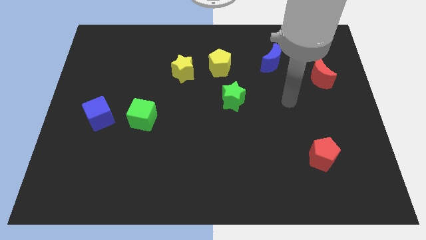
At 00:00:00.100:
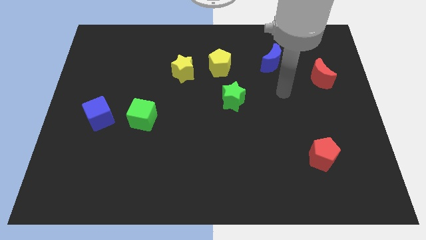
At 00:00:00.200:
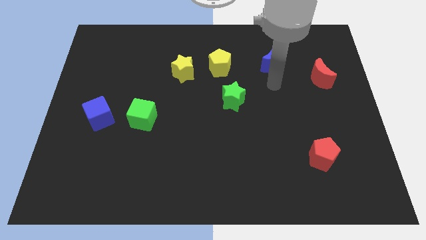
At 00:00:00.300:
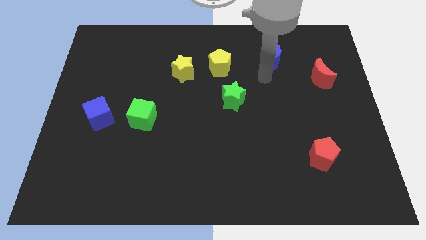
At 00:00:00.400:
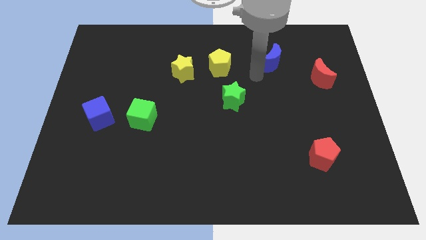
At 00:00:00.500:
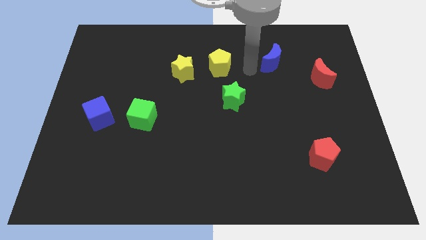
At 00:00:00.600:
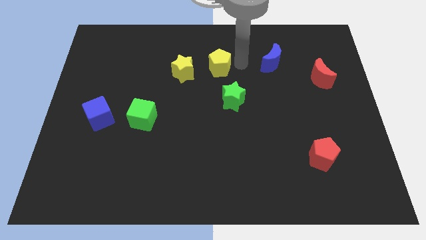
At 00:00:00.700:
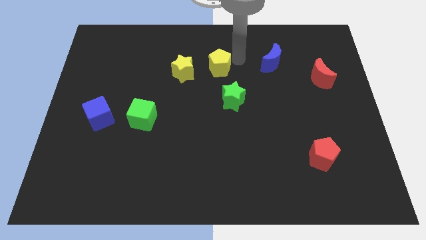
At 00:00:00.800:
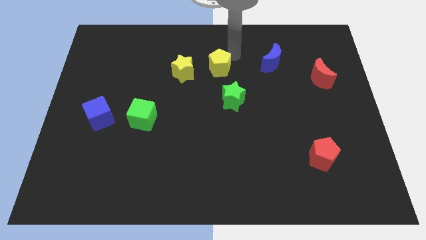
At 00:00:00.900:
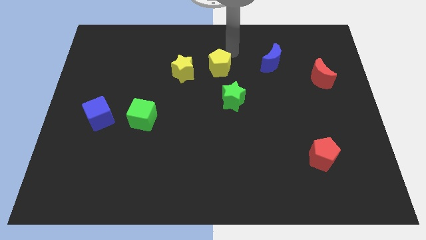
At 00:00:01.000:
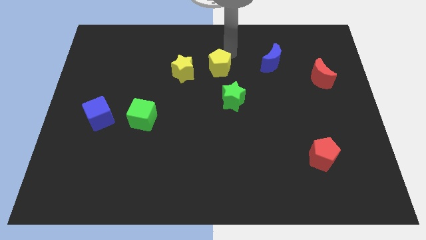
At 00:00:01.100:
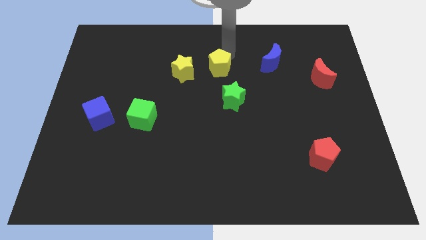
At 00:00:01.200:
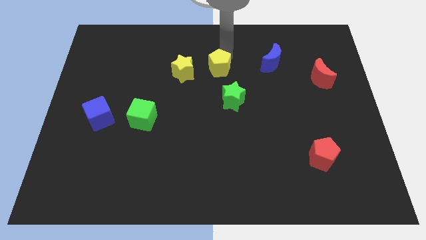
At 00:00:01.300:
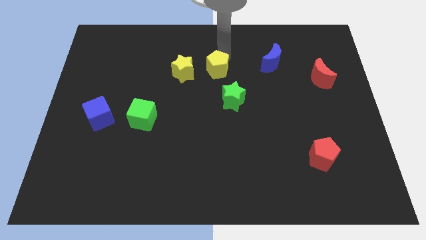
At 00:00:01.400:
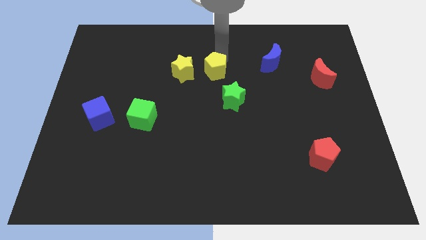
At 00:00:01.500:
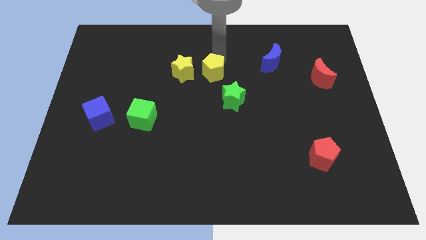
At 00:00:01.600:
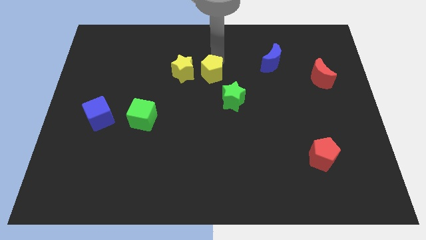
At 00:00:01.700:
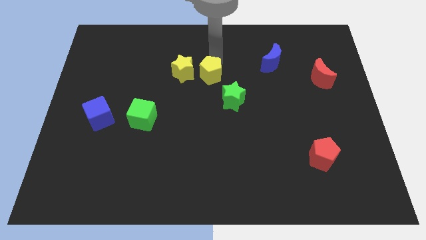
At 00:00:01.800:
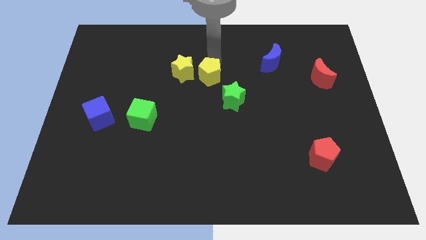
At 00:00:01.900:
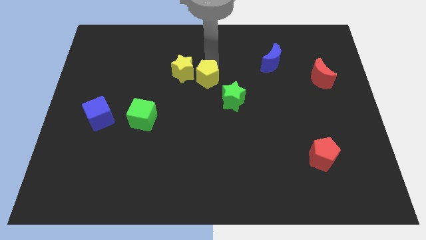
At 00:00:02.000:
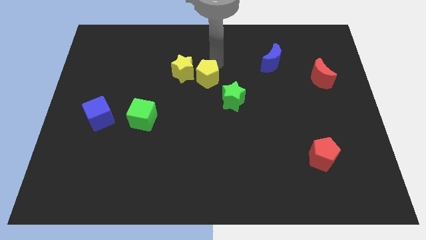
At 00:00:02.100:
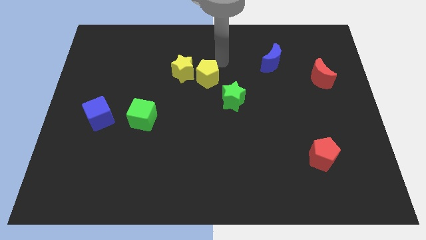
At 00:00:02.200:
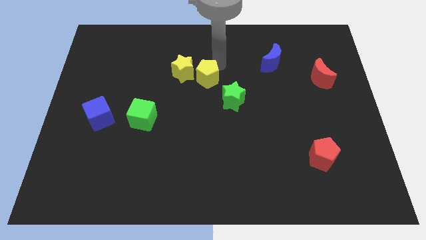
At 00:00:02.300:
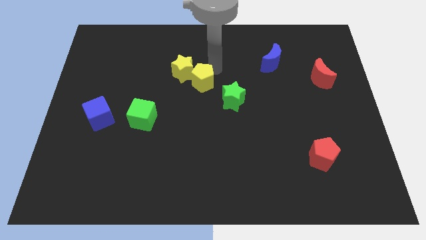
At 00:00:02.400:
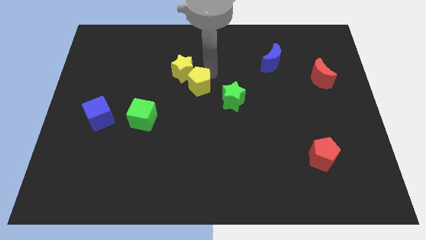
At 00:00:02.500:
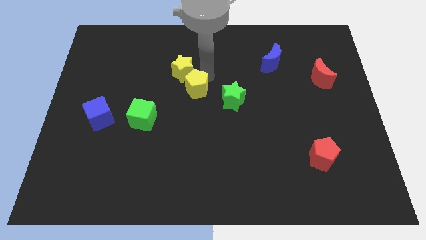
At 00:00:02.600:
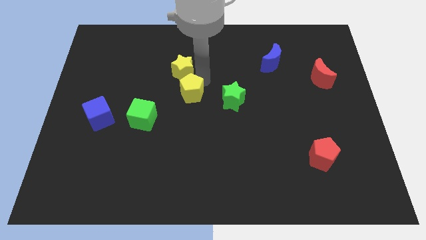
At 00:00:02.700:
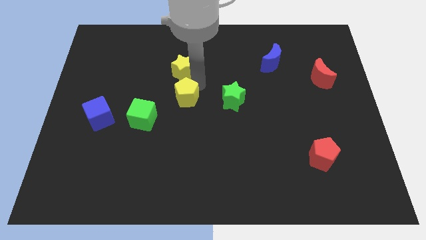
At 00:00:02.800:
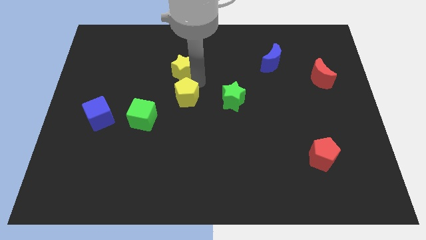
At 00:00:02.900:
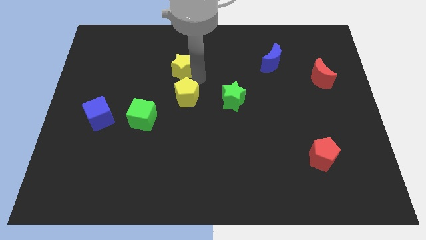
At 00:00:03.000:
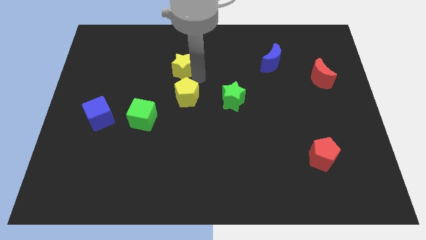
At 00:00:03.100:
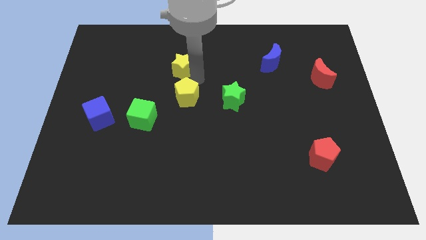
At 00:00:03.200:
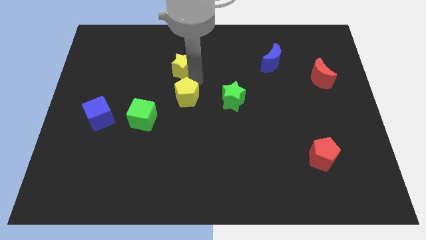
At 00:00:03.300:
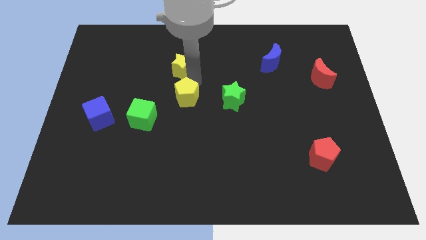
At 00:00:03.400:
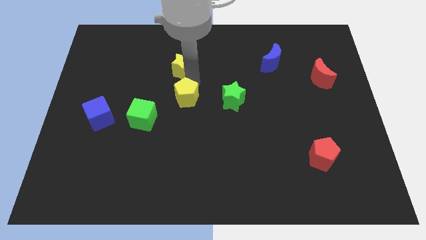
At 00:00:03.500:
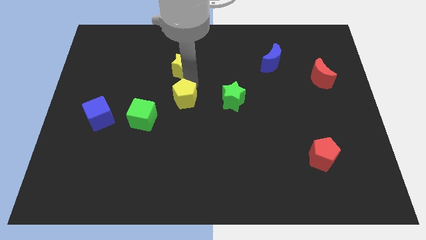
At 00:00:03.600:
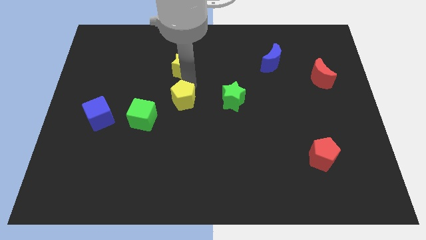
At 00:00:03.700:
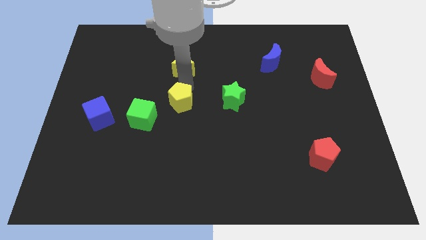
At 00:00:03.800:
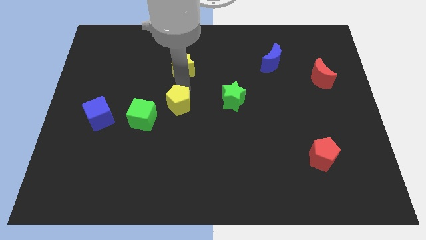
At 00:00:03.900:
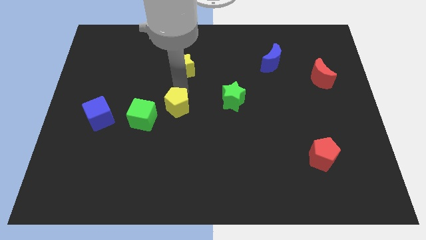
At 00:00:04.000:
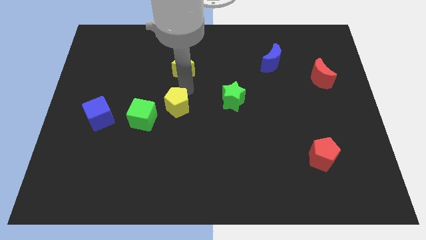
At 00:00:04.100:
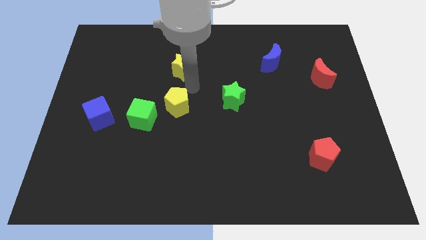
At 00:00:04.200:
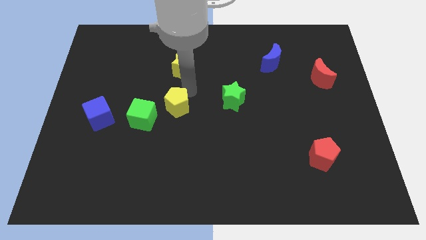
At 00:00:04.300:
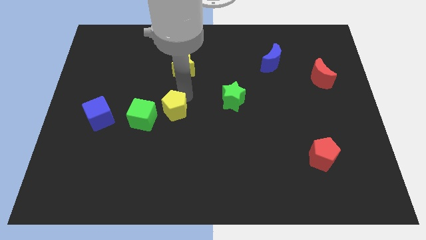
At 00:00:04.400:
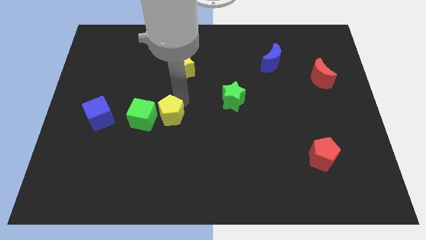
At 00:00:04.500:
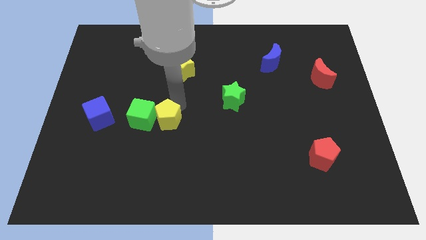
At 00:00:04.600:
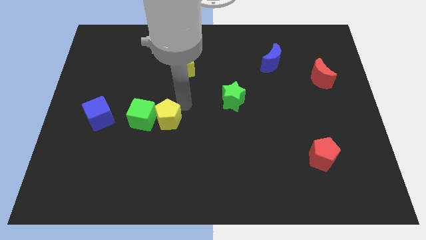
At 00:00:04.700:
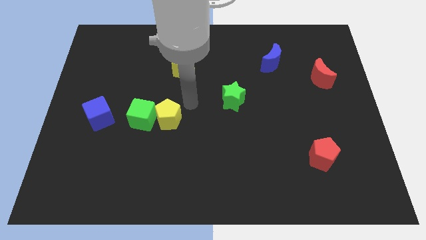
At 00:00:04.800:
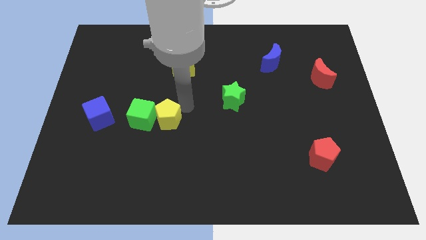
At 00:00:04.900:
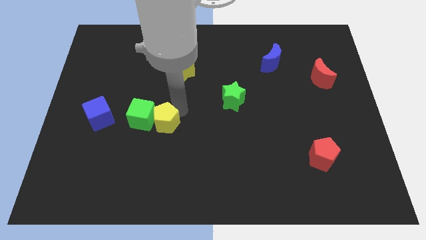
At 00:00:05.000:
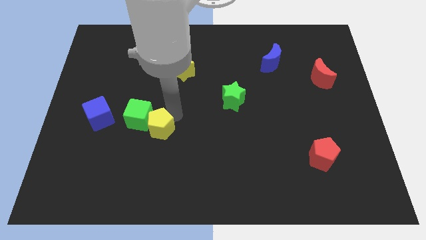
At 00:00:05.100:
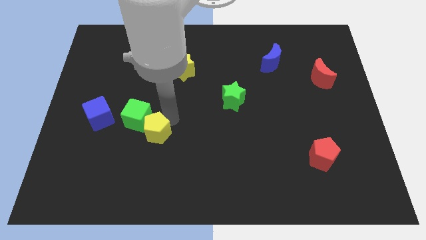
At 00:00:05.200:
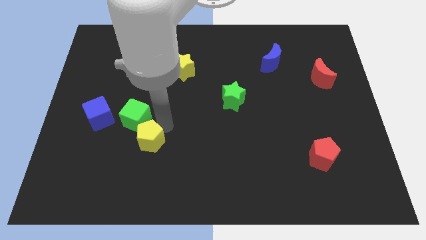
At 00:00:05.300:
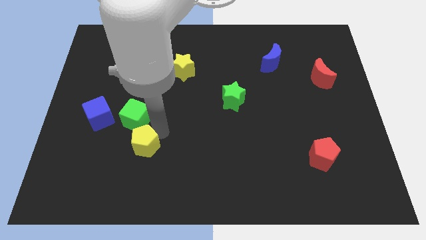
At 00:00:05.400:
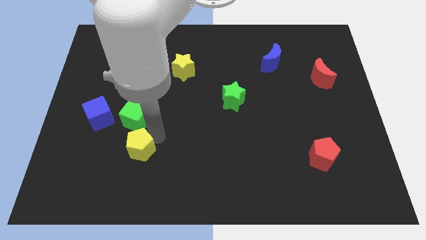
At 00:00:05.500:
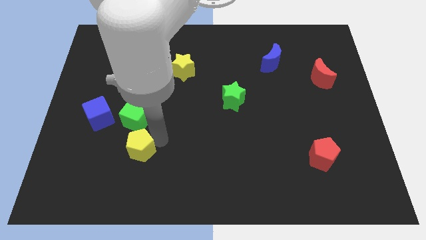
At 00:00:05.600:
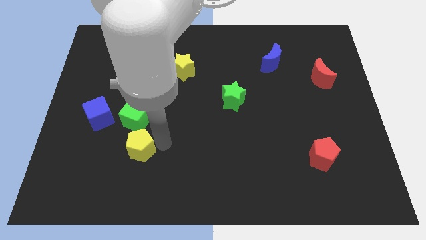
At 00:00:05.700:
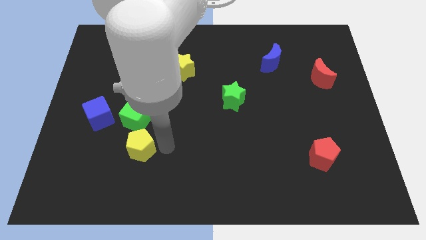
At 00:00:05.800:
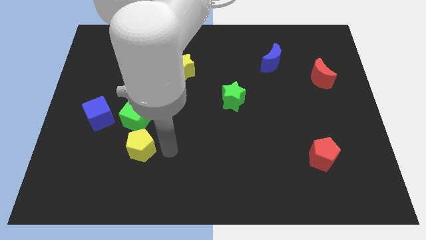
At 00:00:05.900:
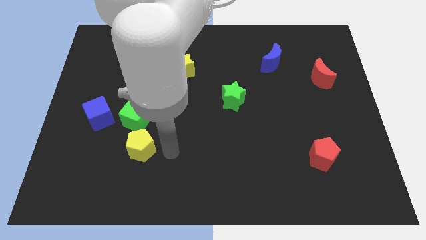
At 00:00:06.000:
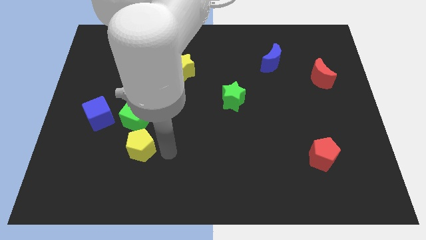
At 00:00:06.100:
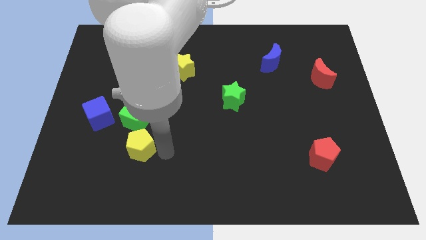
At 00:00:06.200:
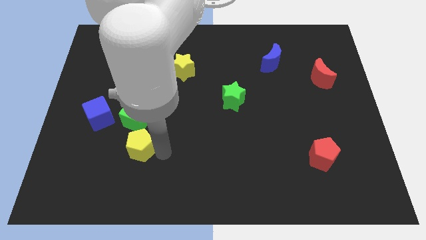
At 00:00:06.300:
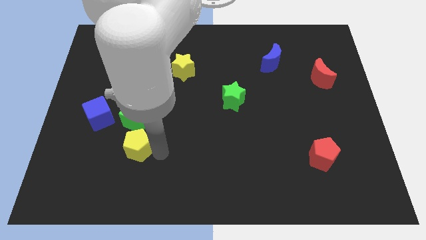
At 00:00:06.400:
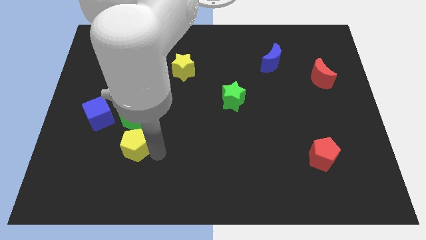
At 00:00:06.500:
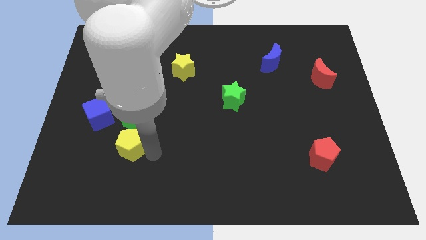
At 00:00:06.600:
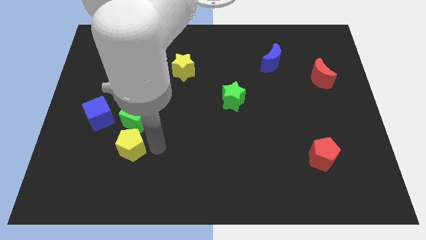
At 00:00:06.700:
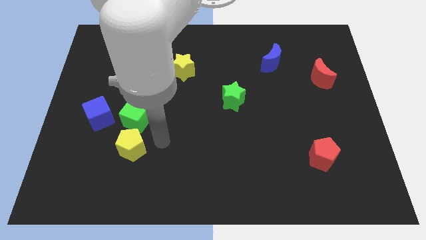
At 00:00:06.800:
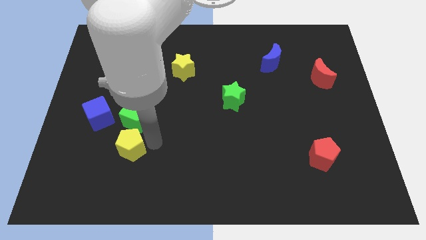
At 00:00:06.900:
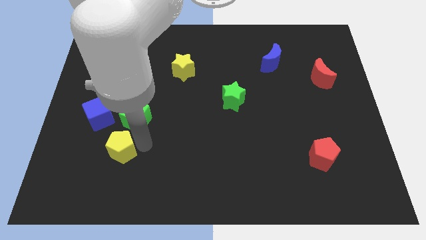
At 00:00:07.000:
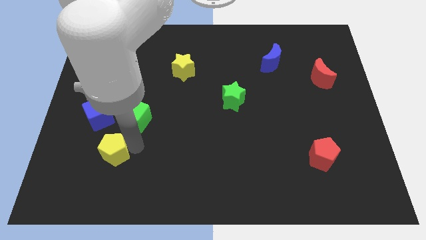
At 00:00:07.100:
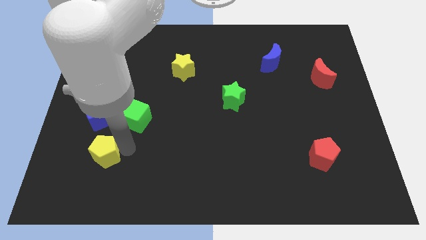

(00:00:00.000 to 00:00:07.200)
slide the yellow pentagon to the bottom of the blue cube

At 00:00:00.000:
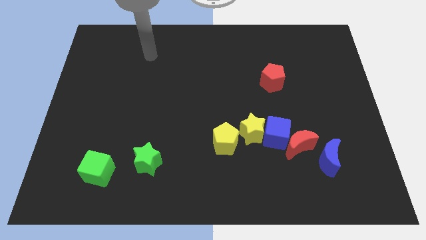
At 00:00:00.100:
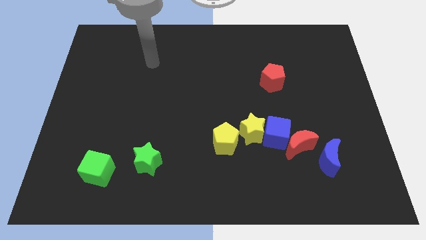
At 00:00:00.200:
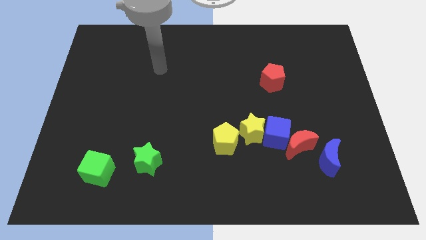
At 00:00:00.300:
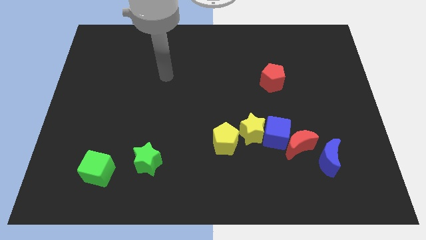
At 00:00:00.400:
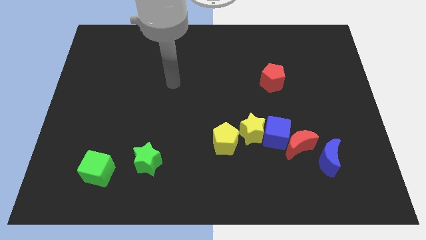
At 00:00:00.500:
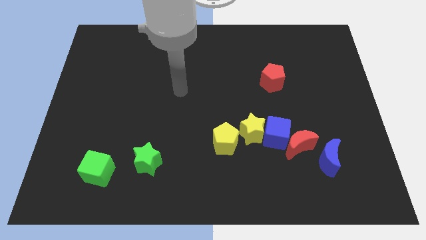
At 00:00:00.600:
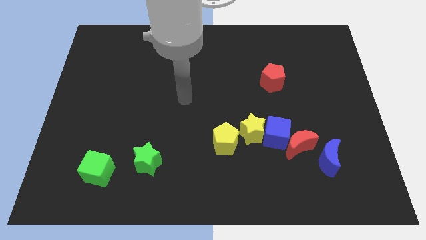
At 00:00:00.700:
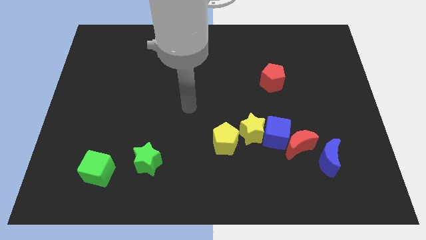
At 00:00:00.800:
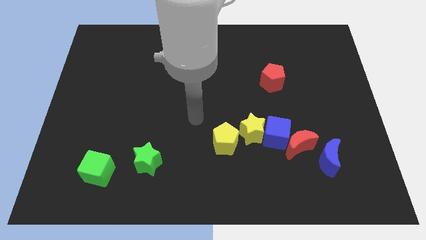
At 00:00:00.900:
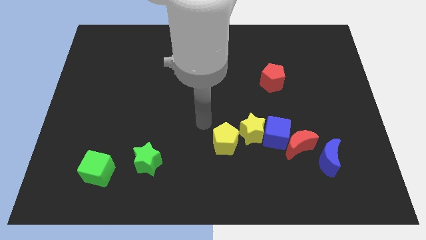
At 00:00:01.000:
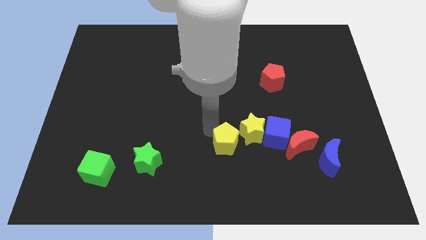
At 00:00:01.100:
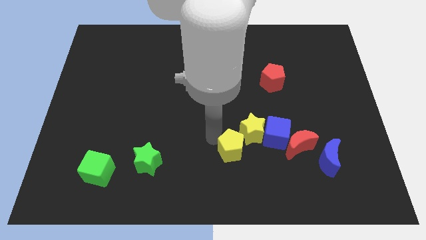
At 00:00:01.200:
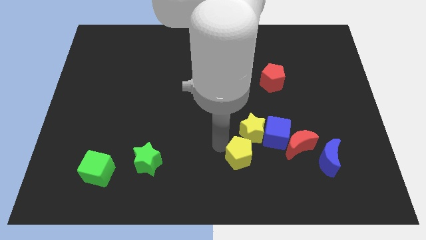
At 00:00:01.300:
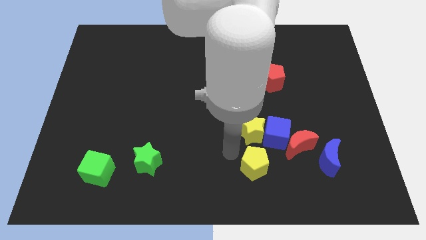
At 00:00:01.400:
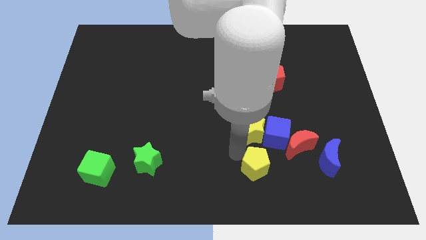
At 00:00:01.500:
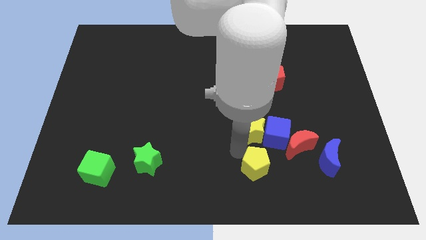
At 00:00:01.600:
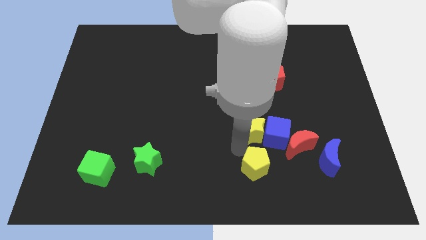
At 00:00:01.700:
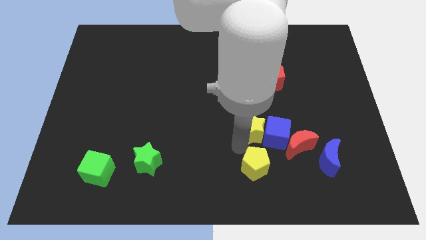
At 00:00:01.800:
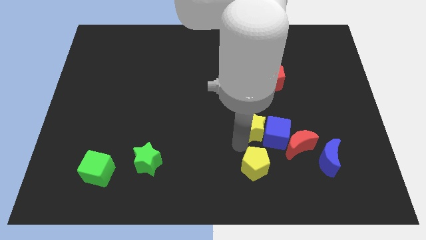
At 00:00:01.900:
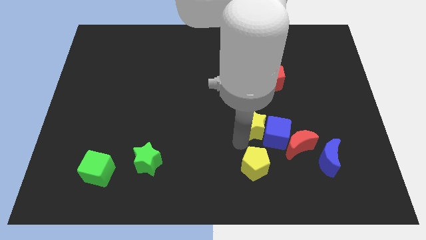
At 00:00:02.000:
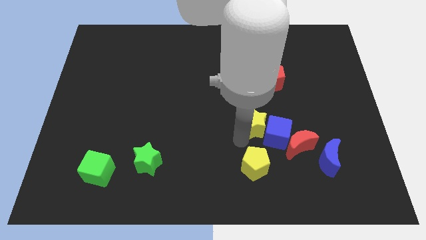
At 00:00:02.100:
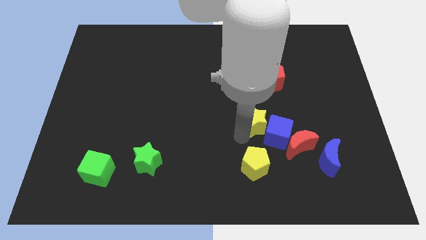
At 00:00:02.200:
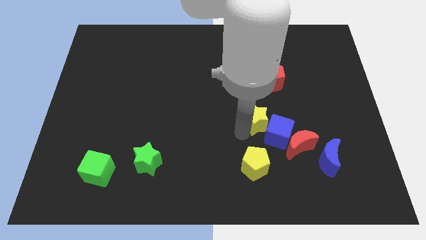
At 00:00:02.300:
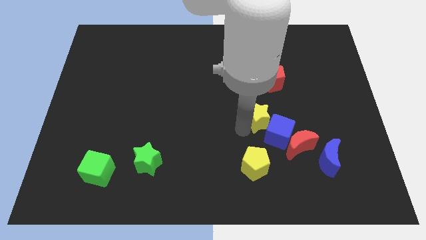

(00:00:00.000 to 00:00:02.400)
push the yellow star to the top side of the blue cube
